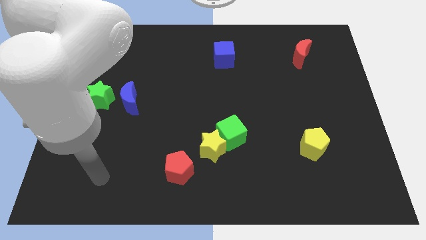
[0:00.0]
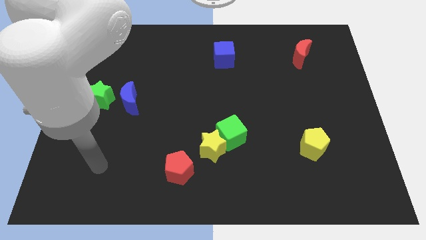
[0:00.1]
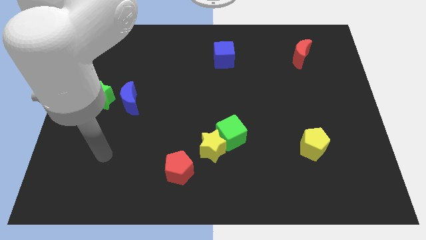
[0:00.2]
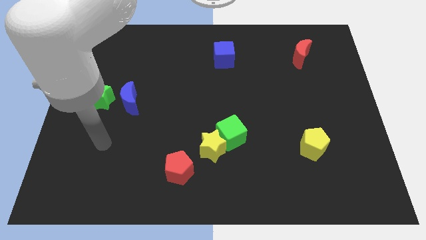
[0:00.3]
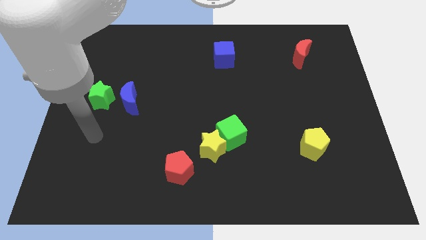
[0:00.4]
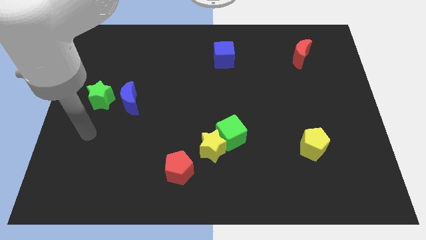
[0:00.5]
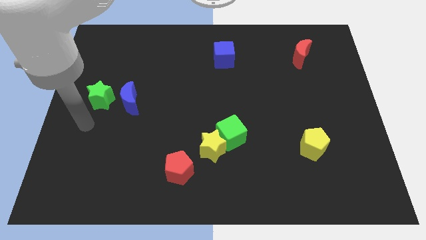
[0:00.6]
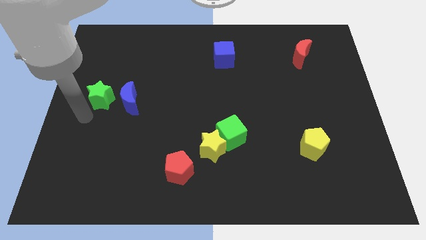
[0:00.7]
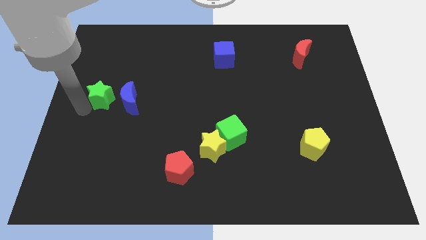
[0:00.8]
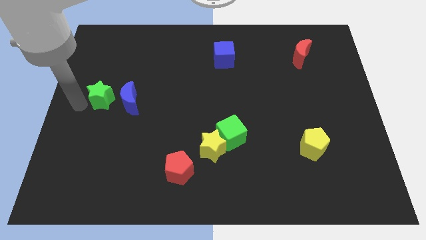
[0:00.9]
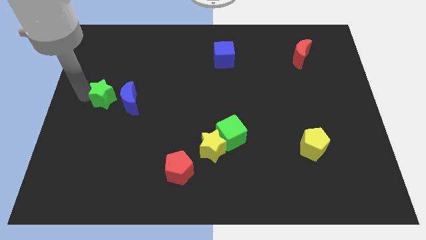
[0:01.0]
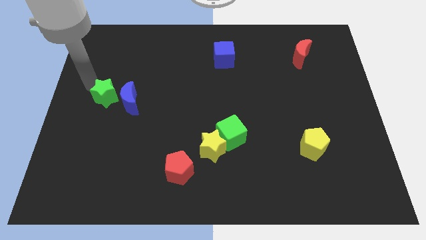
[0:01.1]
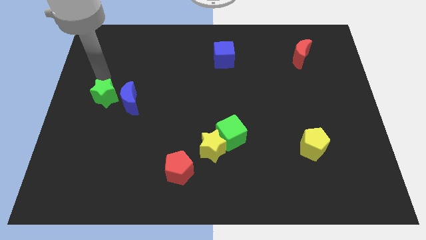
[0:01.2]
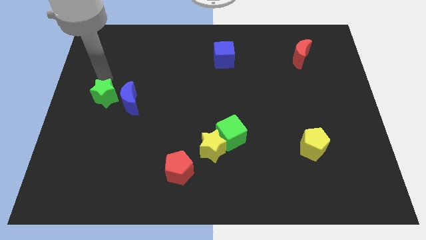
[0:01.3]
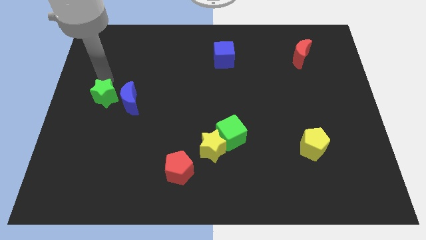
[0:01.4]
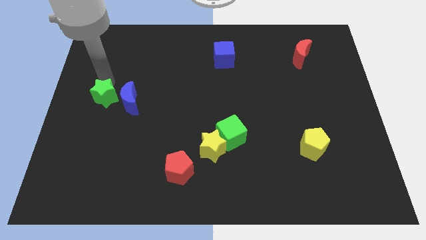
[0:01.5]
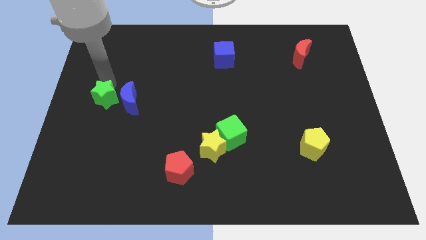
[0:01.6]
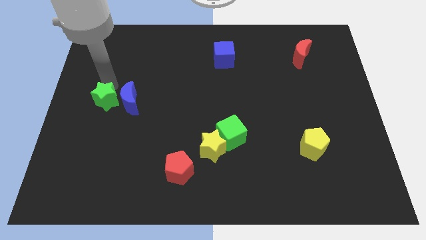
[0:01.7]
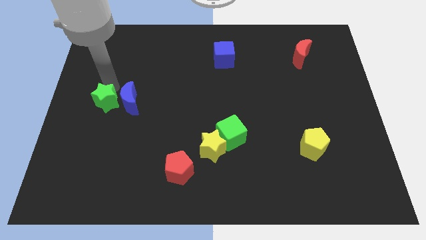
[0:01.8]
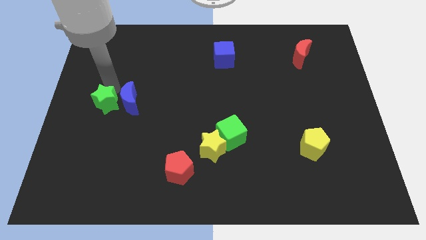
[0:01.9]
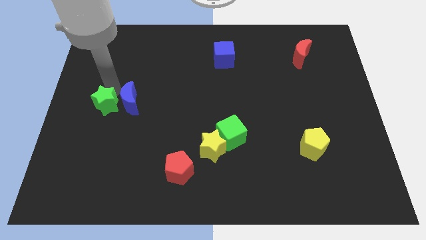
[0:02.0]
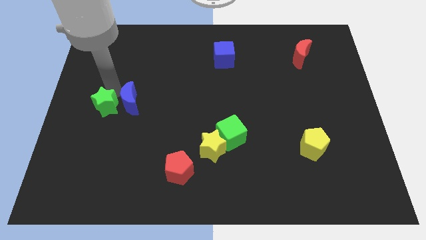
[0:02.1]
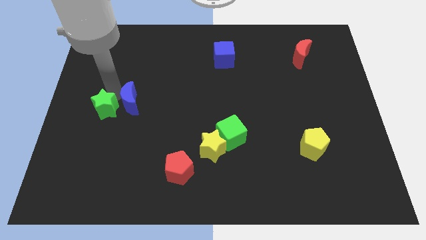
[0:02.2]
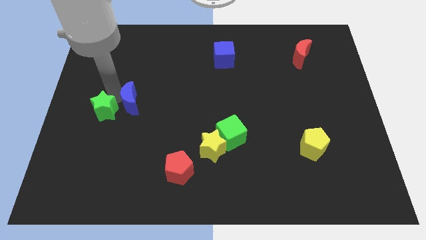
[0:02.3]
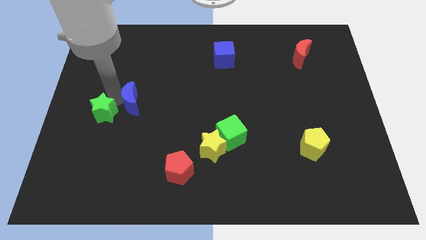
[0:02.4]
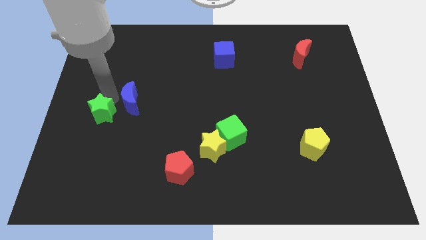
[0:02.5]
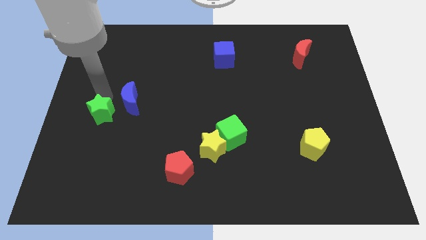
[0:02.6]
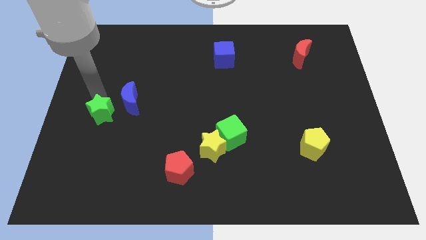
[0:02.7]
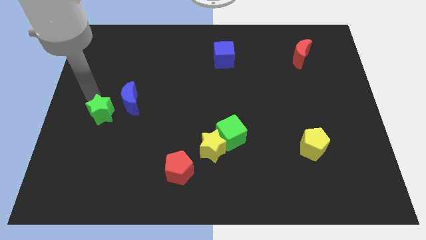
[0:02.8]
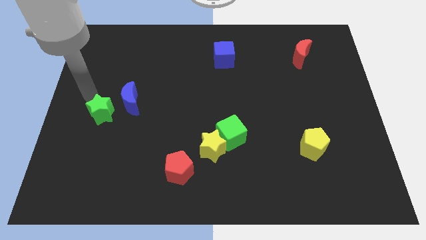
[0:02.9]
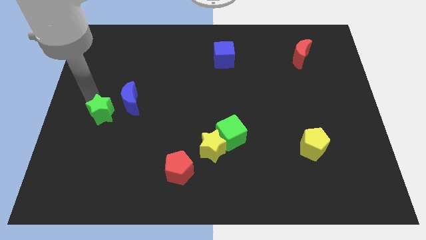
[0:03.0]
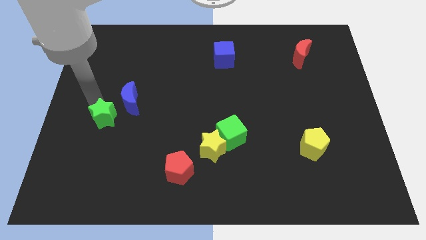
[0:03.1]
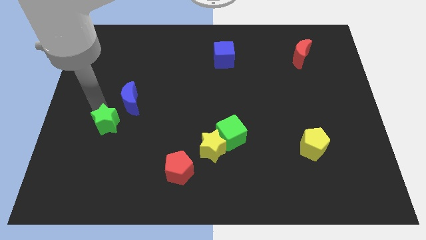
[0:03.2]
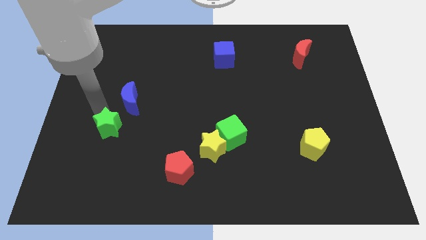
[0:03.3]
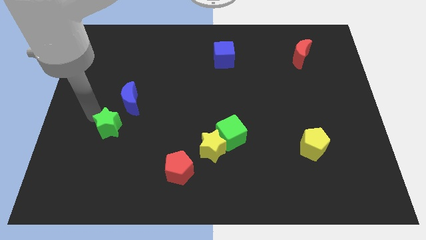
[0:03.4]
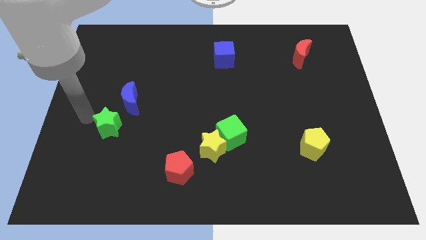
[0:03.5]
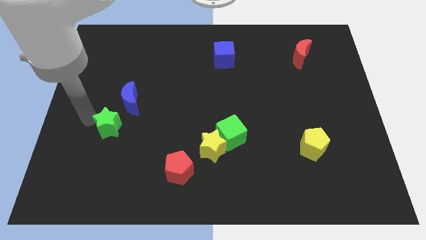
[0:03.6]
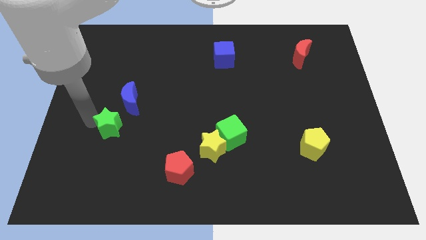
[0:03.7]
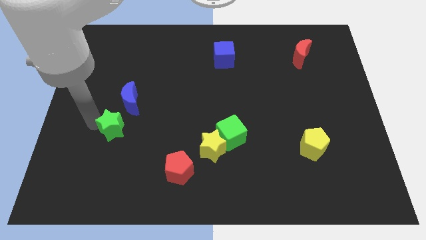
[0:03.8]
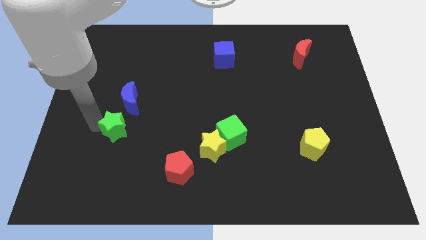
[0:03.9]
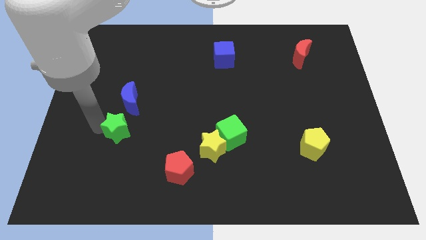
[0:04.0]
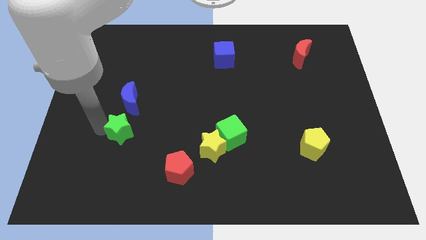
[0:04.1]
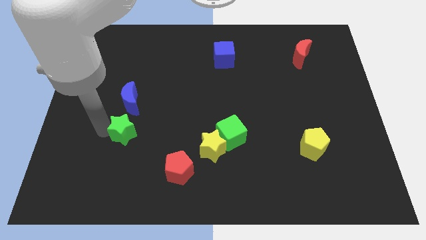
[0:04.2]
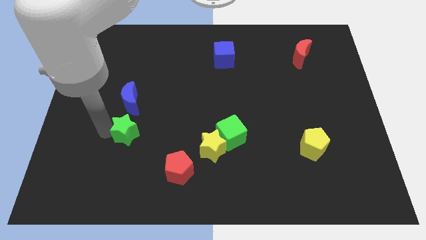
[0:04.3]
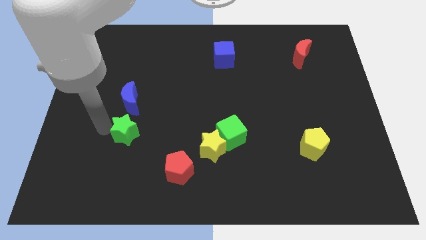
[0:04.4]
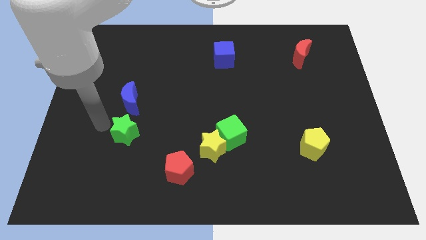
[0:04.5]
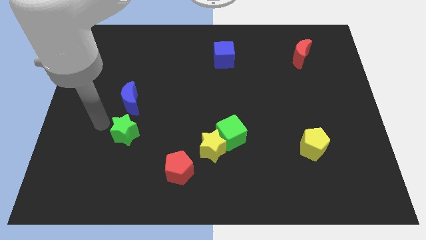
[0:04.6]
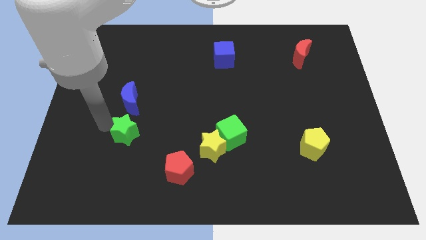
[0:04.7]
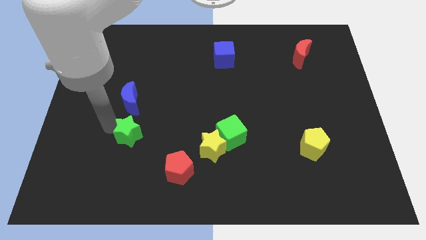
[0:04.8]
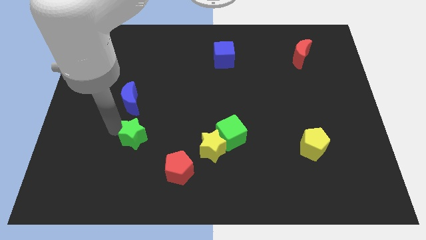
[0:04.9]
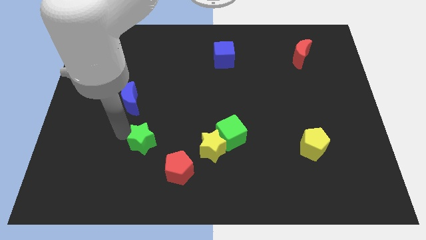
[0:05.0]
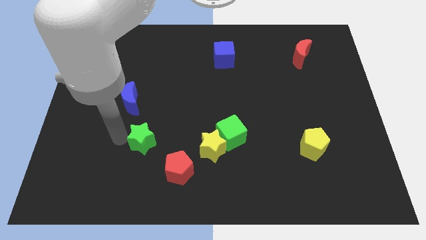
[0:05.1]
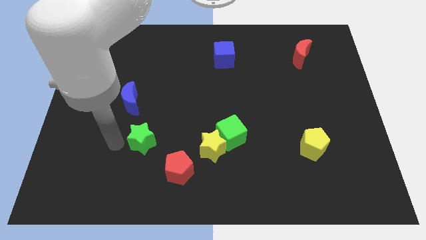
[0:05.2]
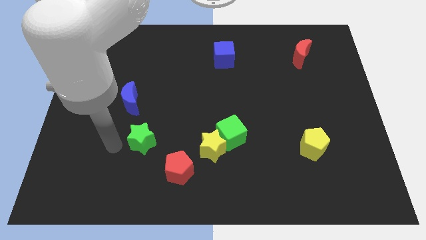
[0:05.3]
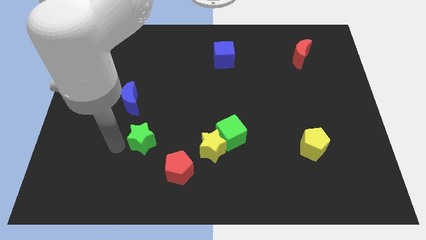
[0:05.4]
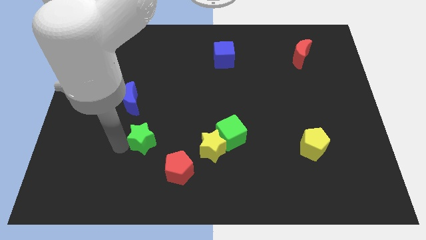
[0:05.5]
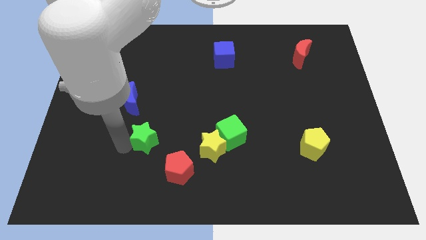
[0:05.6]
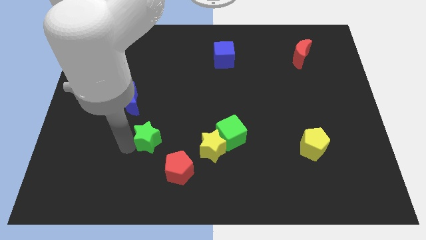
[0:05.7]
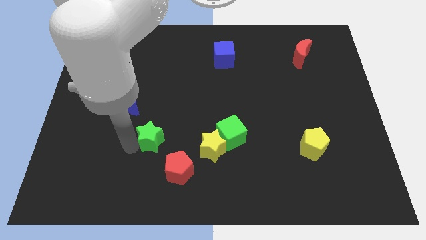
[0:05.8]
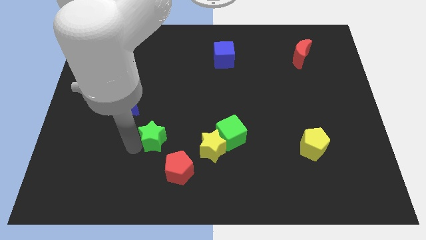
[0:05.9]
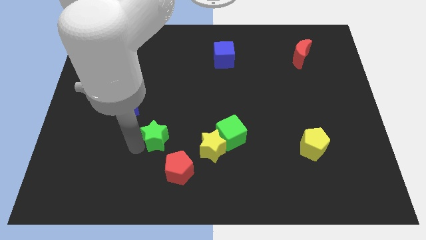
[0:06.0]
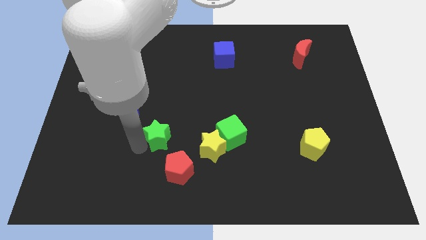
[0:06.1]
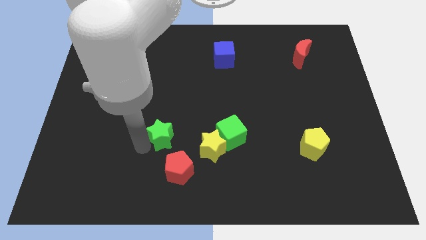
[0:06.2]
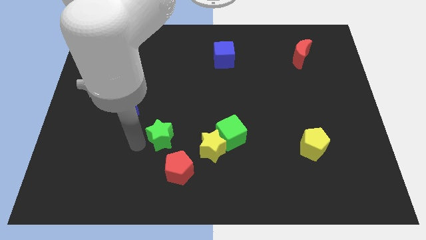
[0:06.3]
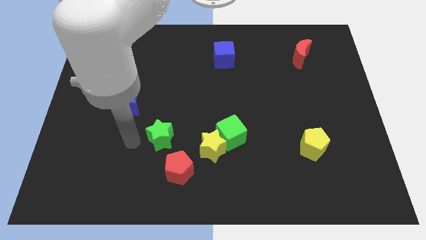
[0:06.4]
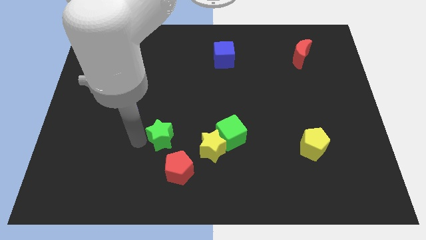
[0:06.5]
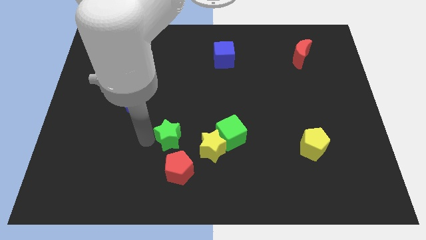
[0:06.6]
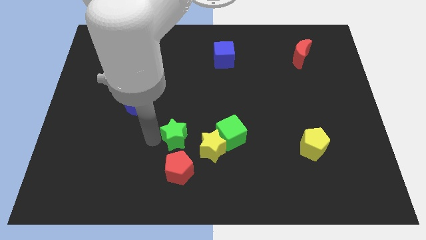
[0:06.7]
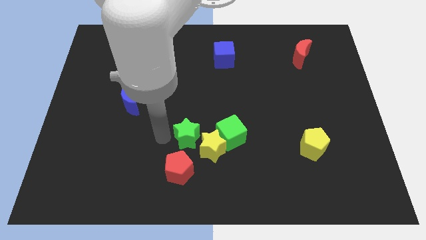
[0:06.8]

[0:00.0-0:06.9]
slide the green star next to the yellow star

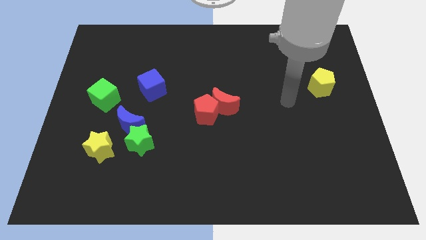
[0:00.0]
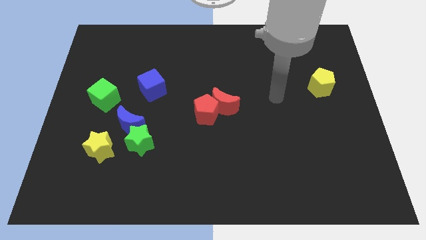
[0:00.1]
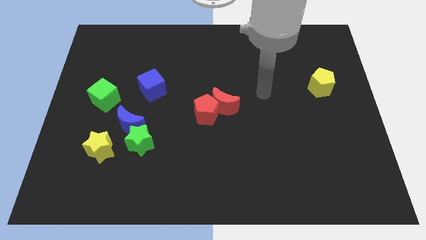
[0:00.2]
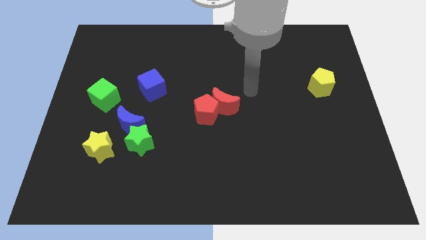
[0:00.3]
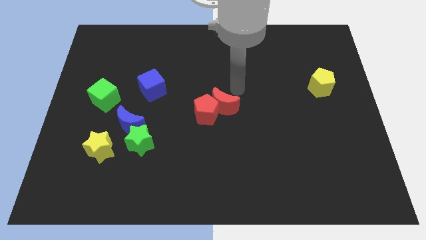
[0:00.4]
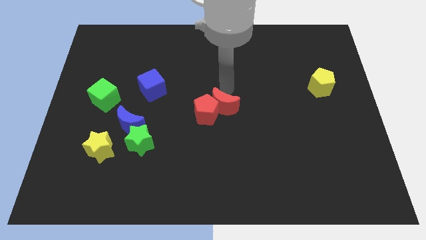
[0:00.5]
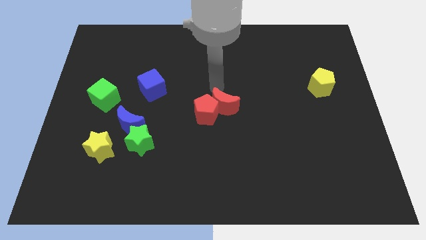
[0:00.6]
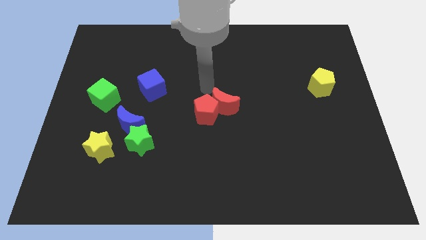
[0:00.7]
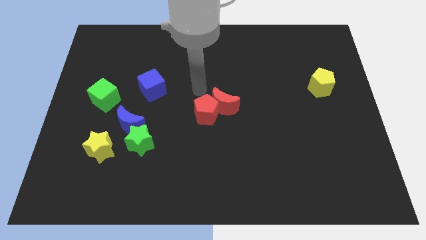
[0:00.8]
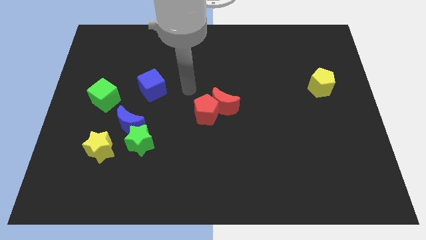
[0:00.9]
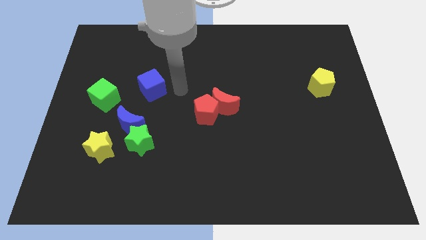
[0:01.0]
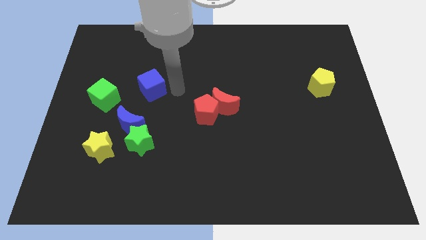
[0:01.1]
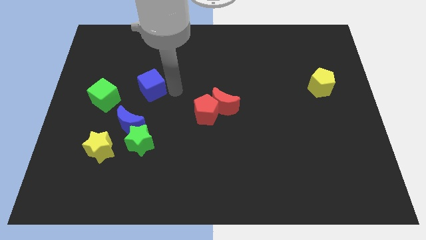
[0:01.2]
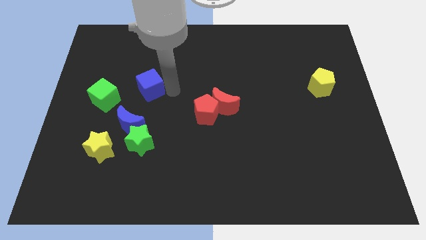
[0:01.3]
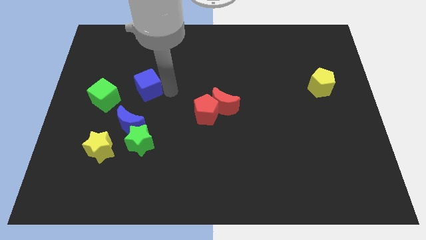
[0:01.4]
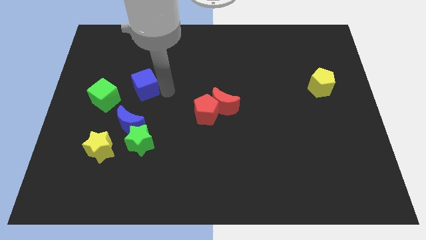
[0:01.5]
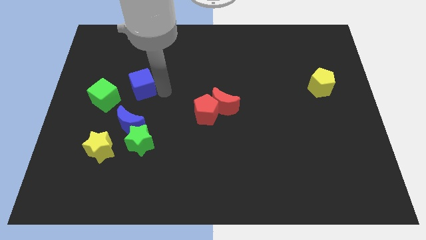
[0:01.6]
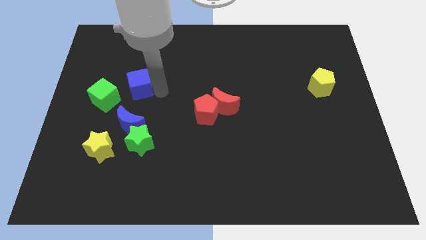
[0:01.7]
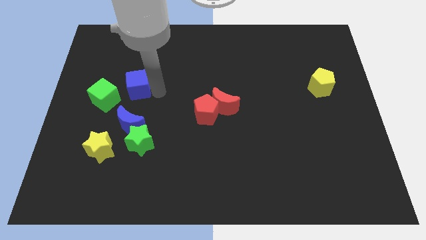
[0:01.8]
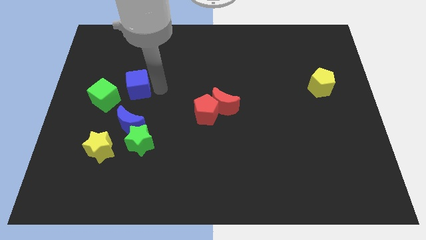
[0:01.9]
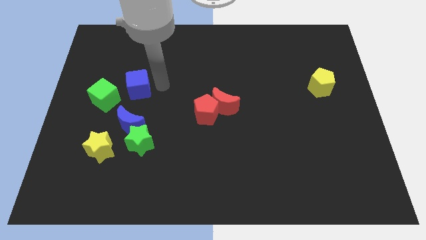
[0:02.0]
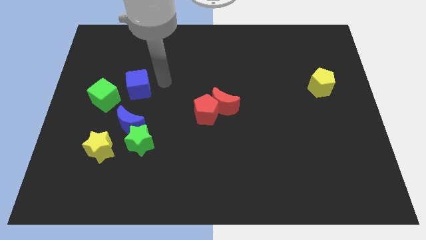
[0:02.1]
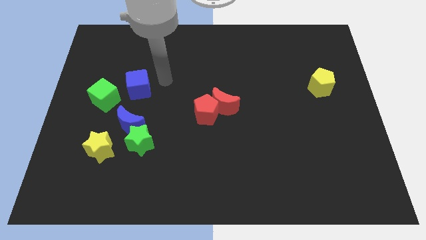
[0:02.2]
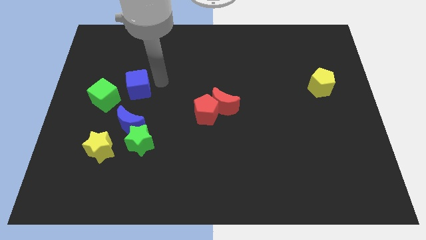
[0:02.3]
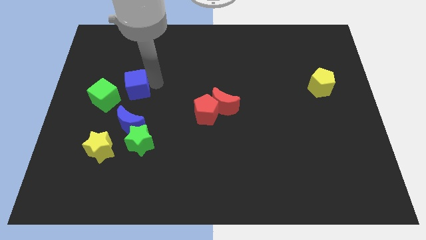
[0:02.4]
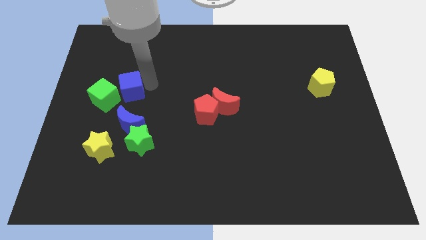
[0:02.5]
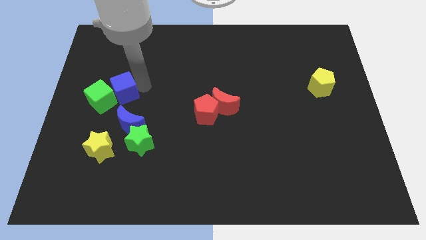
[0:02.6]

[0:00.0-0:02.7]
put the blue cube close to the green cube
